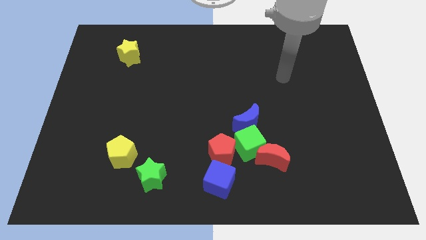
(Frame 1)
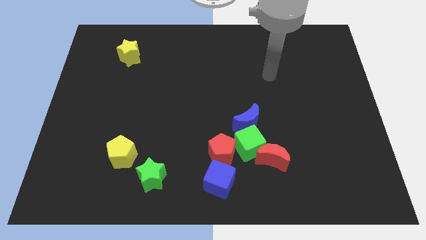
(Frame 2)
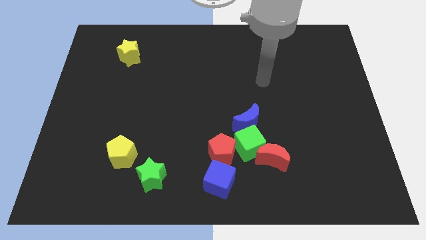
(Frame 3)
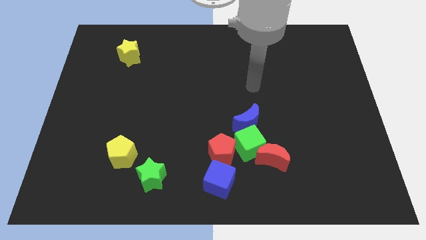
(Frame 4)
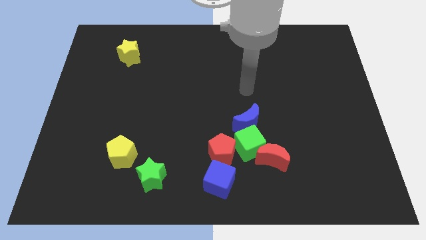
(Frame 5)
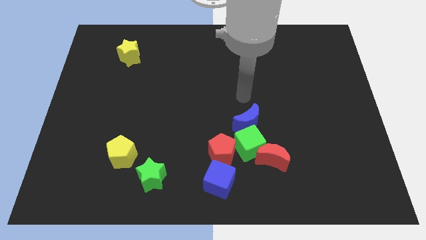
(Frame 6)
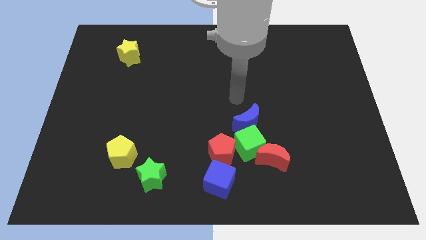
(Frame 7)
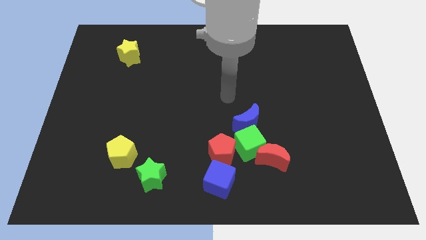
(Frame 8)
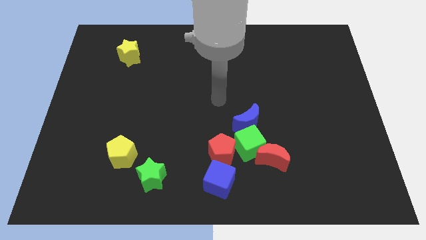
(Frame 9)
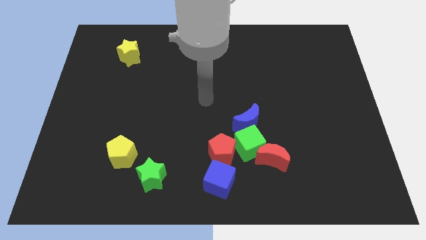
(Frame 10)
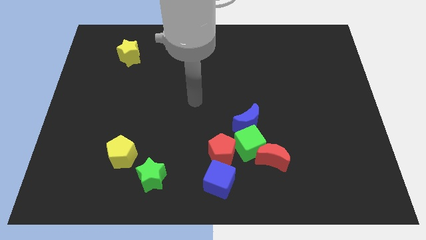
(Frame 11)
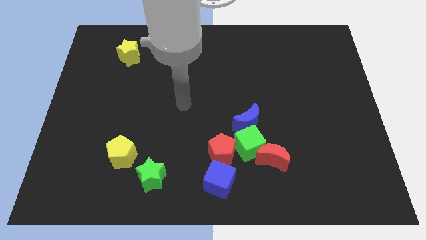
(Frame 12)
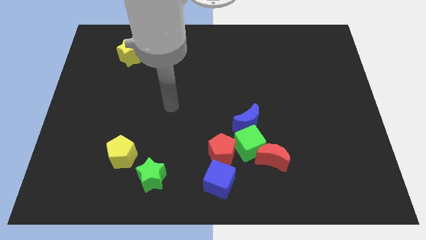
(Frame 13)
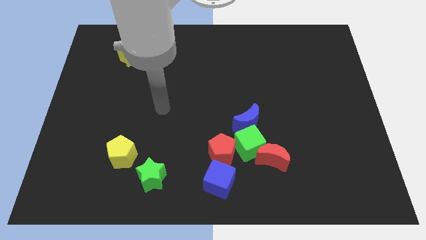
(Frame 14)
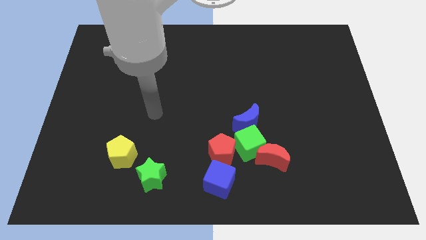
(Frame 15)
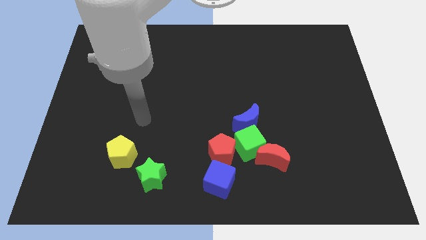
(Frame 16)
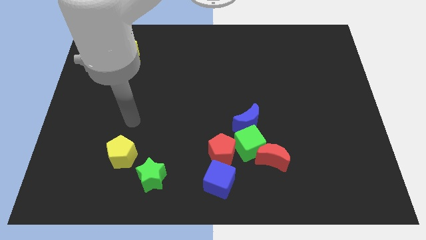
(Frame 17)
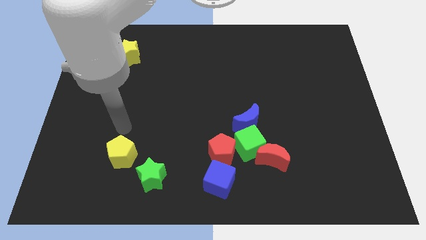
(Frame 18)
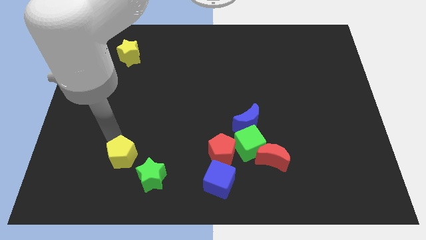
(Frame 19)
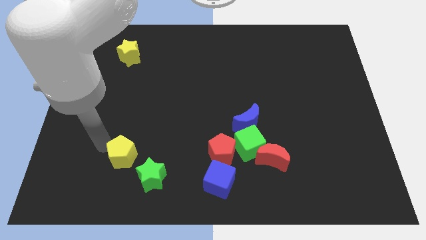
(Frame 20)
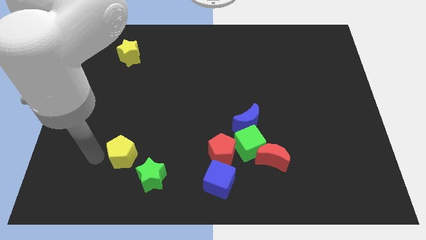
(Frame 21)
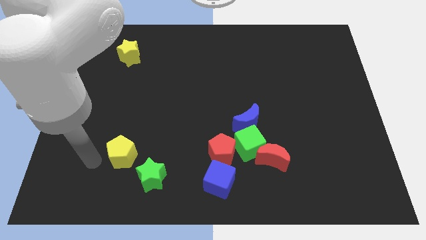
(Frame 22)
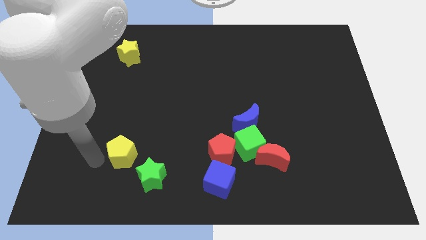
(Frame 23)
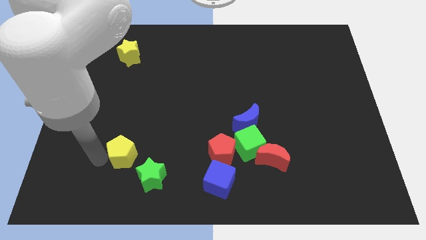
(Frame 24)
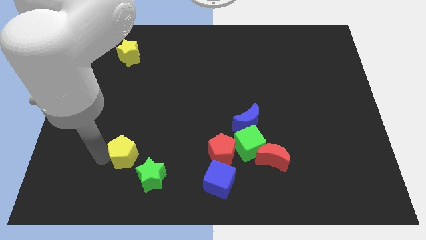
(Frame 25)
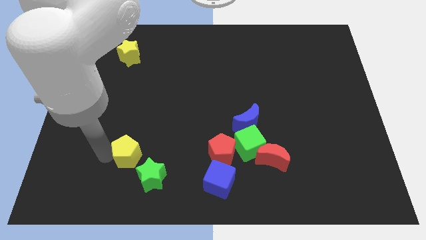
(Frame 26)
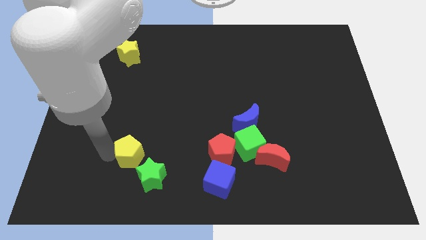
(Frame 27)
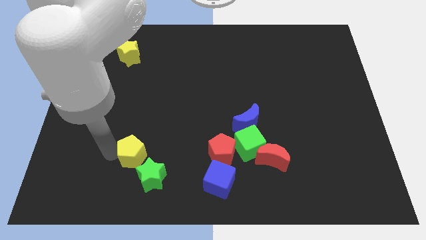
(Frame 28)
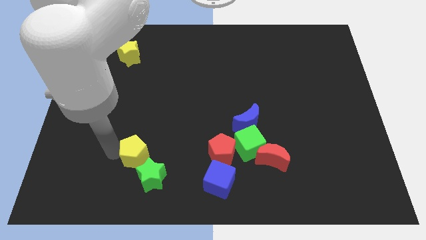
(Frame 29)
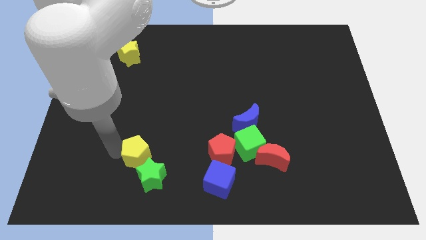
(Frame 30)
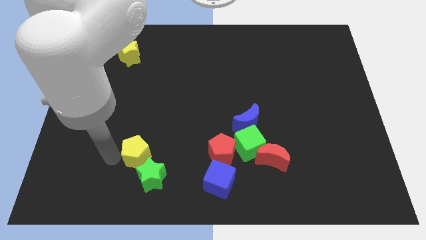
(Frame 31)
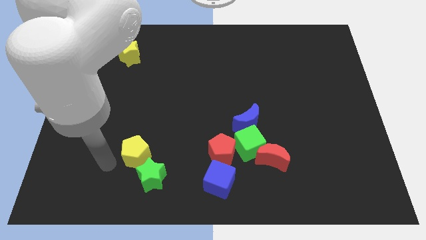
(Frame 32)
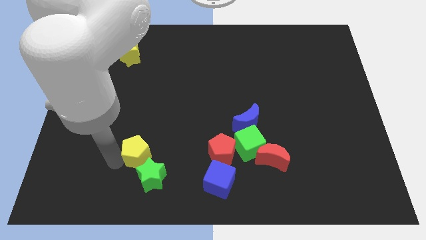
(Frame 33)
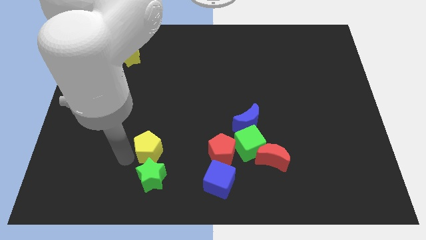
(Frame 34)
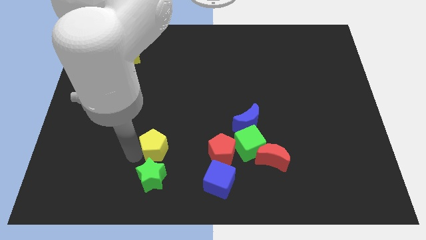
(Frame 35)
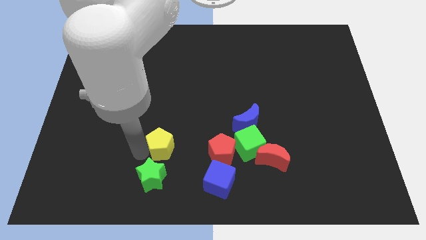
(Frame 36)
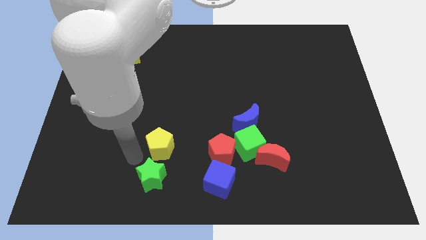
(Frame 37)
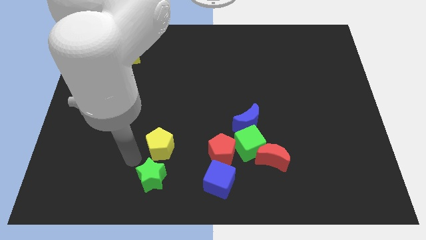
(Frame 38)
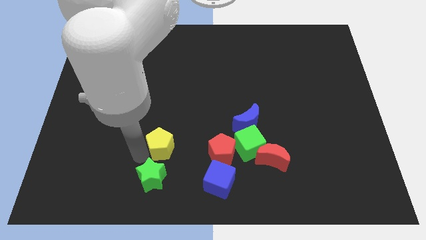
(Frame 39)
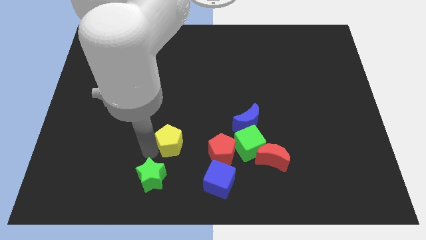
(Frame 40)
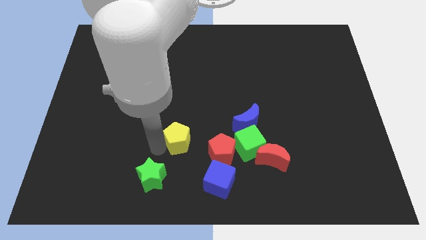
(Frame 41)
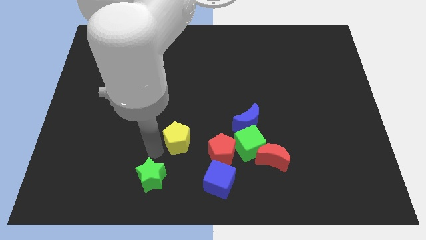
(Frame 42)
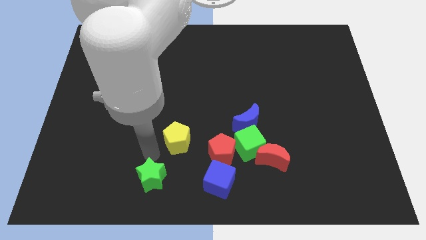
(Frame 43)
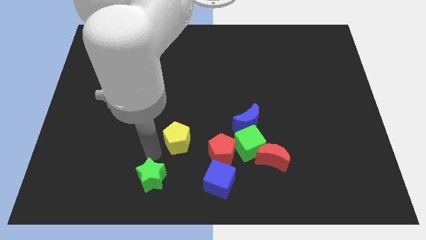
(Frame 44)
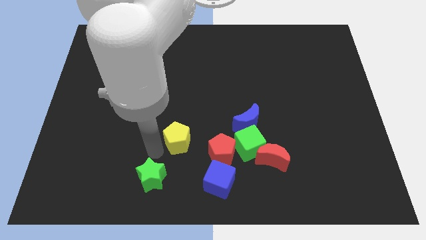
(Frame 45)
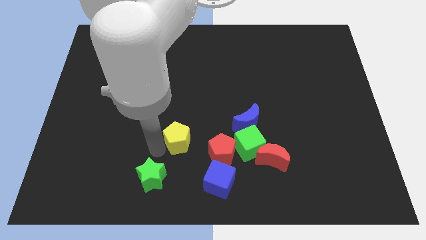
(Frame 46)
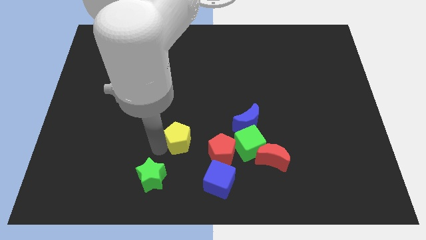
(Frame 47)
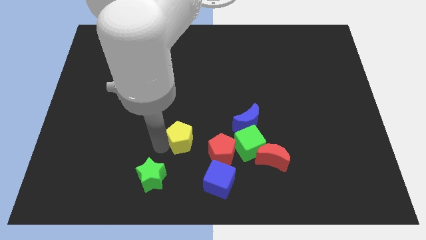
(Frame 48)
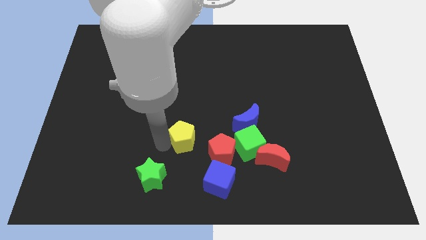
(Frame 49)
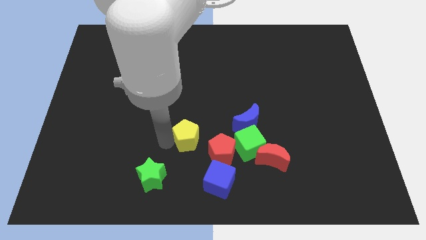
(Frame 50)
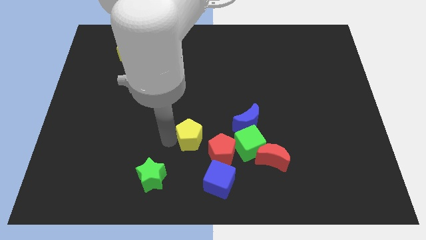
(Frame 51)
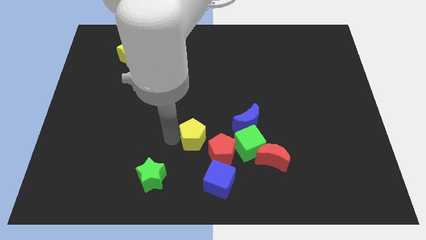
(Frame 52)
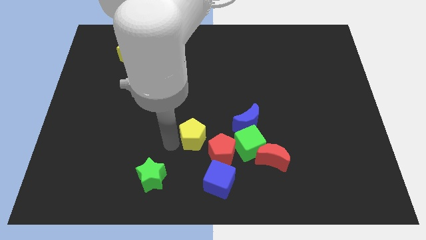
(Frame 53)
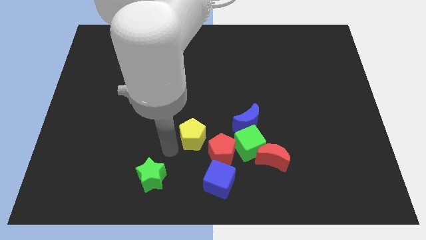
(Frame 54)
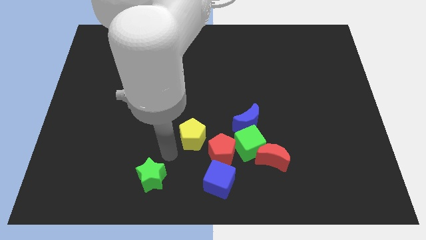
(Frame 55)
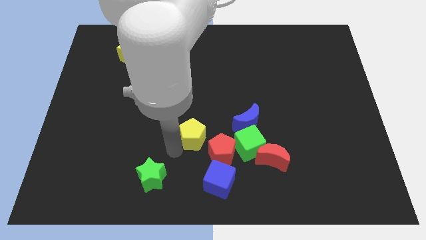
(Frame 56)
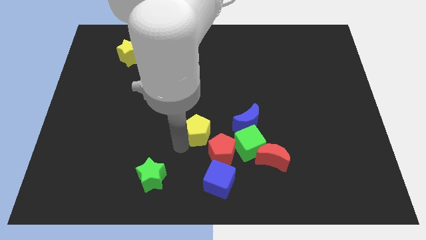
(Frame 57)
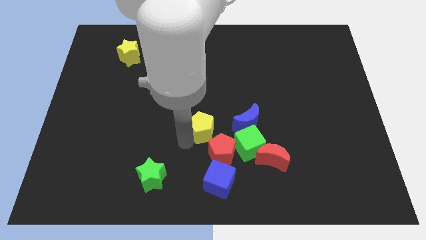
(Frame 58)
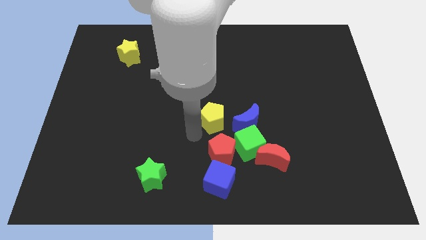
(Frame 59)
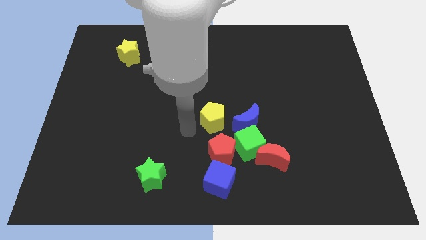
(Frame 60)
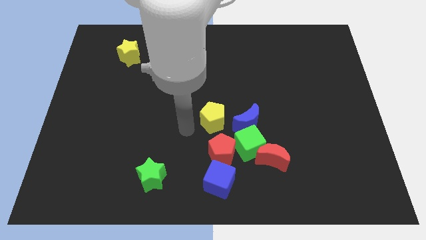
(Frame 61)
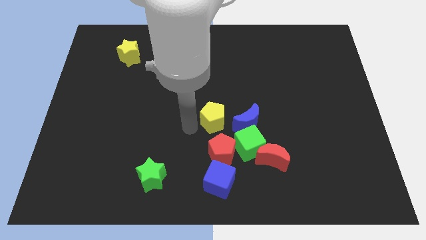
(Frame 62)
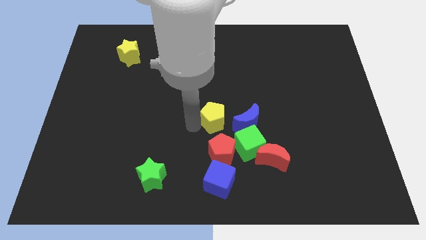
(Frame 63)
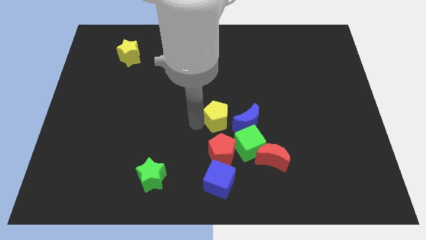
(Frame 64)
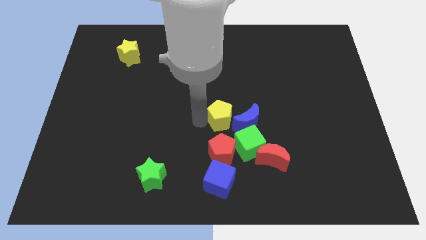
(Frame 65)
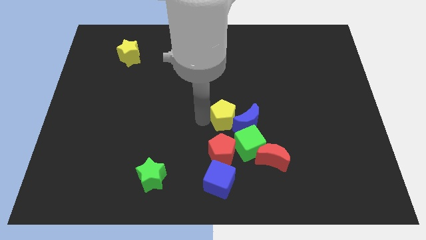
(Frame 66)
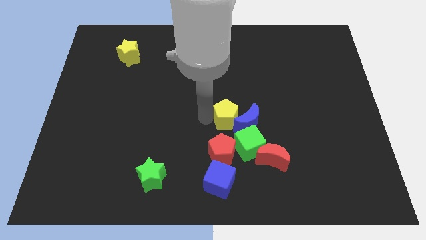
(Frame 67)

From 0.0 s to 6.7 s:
put the yellow pentagon to the top side of the green cube
